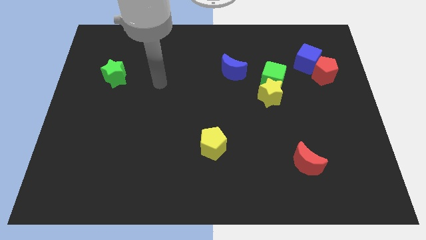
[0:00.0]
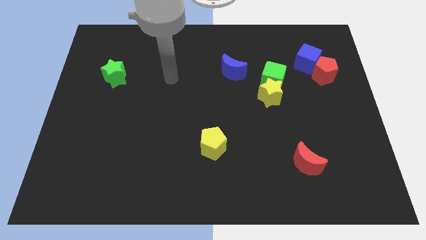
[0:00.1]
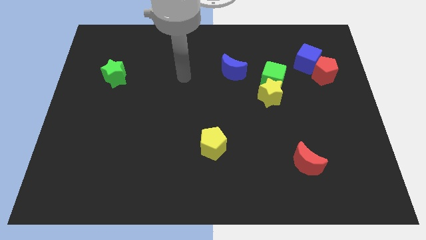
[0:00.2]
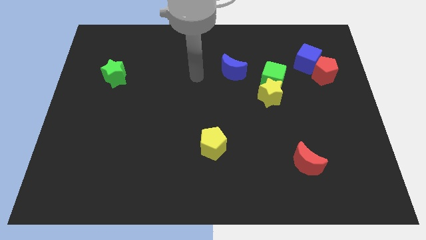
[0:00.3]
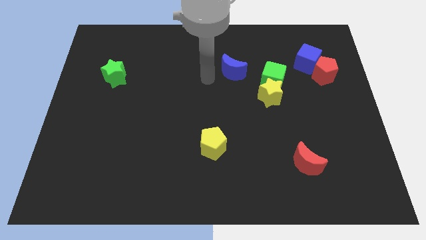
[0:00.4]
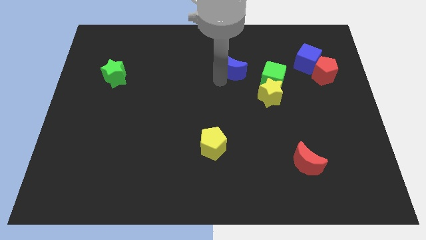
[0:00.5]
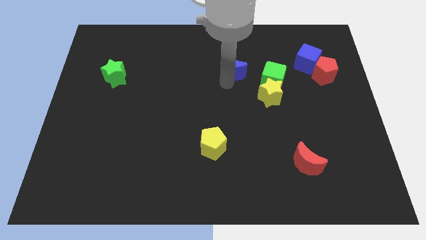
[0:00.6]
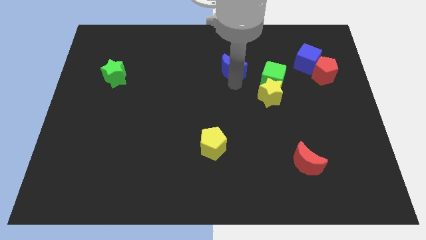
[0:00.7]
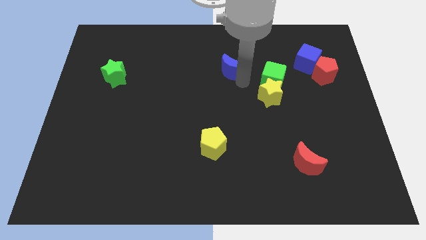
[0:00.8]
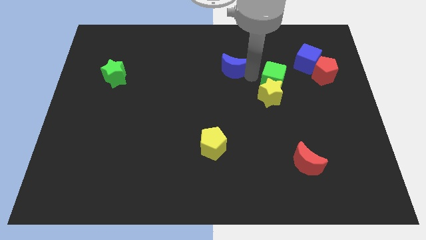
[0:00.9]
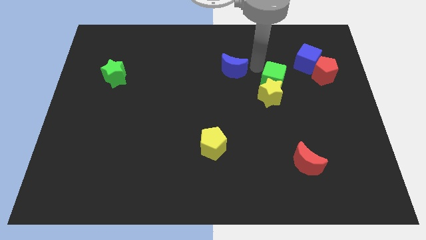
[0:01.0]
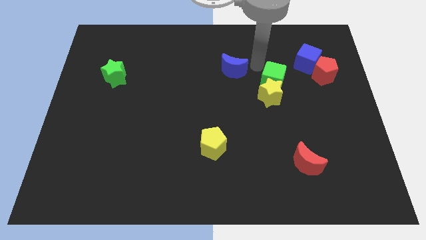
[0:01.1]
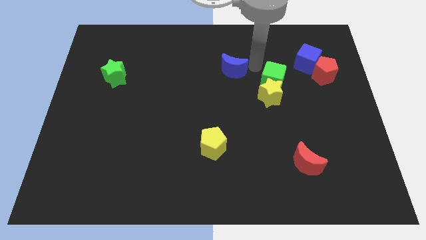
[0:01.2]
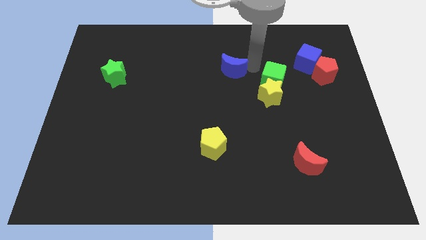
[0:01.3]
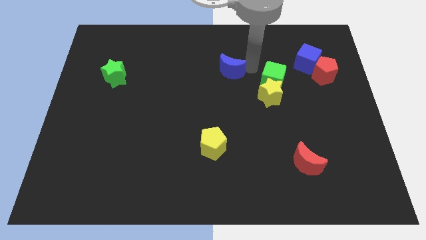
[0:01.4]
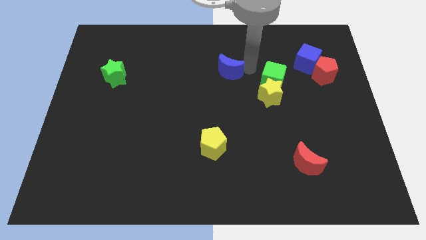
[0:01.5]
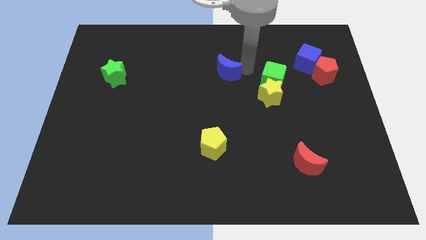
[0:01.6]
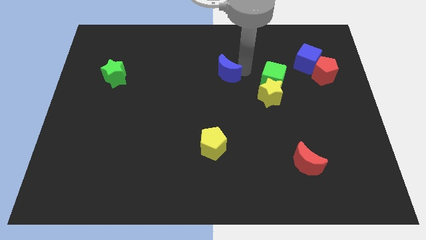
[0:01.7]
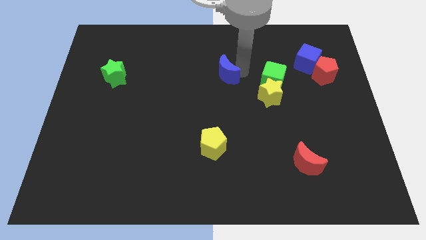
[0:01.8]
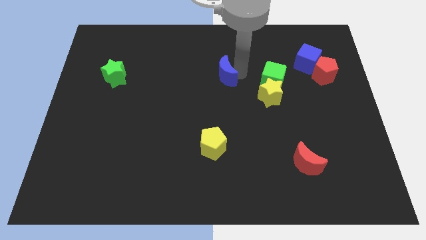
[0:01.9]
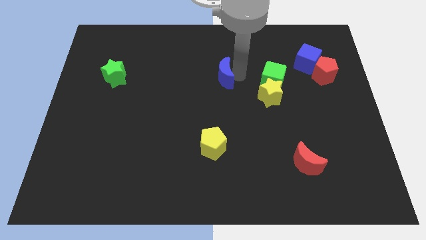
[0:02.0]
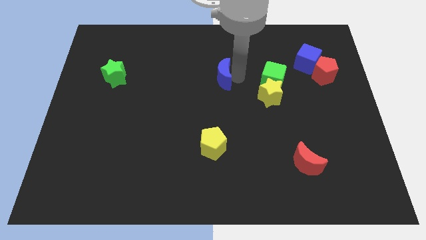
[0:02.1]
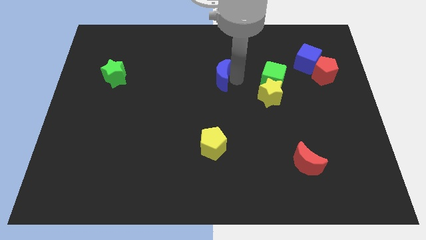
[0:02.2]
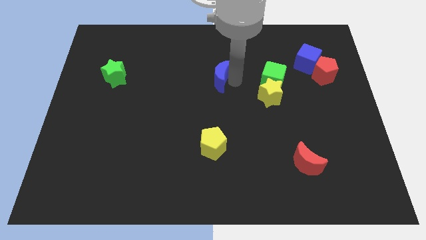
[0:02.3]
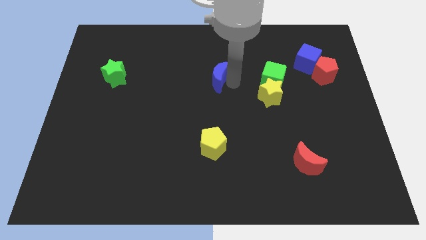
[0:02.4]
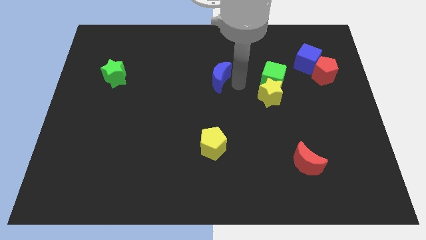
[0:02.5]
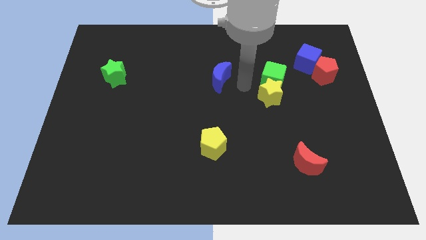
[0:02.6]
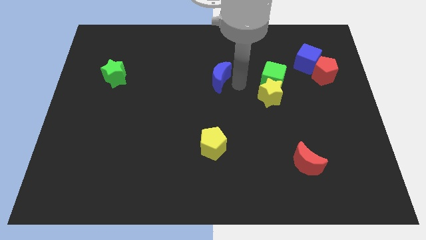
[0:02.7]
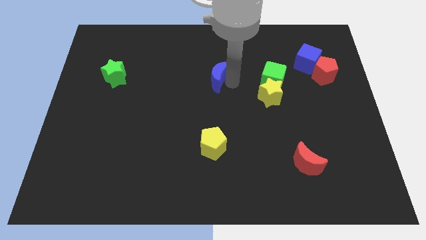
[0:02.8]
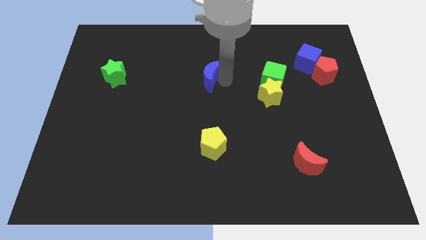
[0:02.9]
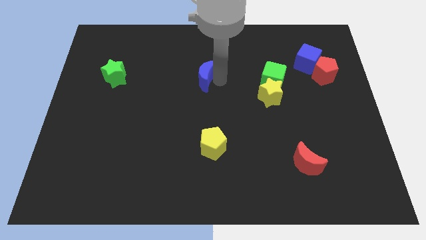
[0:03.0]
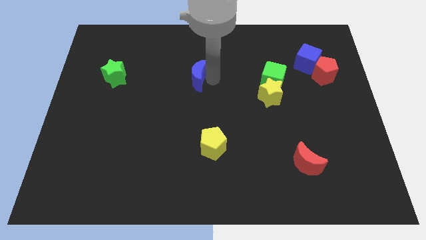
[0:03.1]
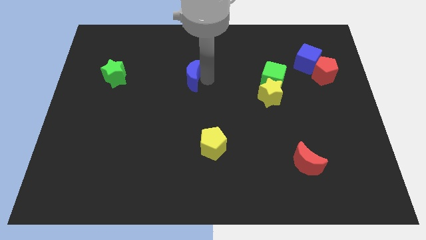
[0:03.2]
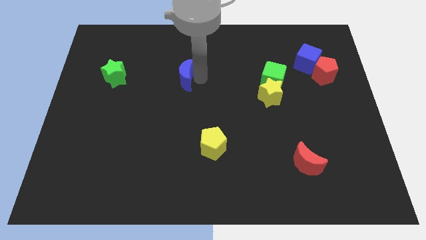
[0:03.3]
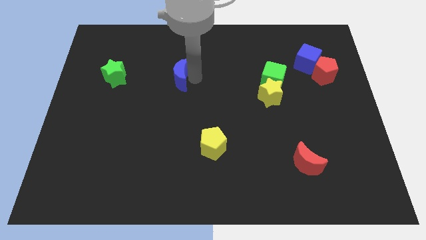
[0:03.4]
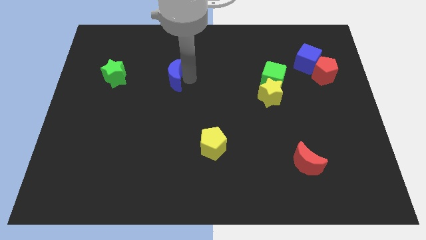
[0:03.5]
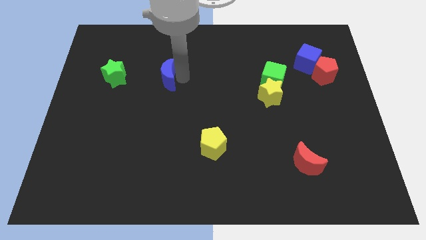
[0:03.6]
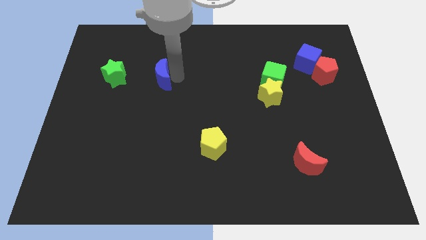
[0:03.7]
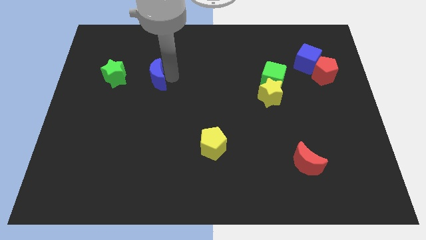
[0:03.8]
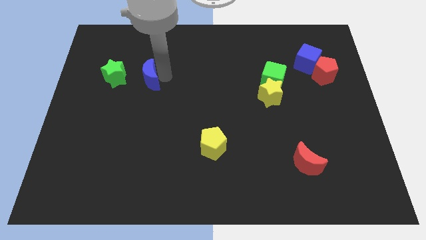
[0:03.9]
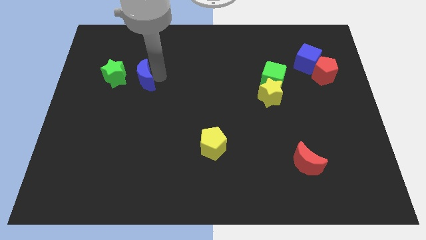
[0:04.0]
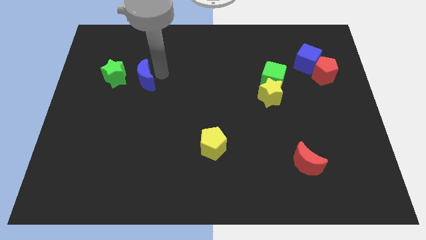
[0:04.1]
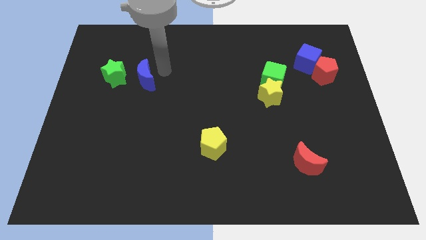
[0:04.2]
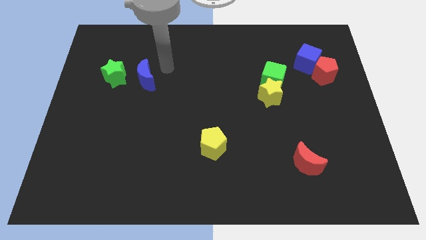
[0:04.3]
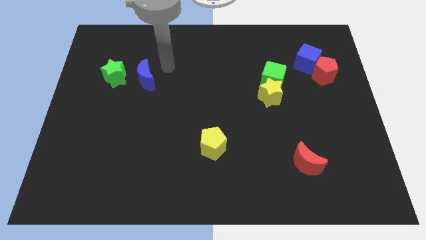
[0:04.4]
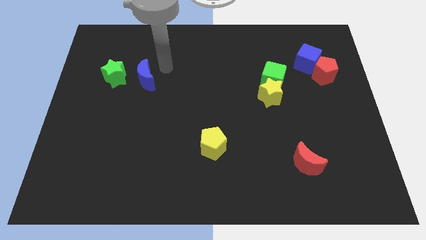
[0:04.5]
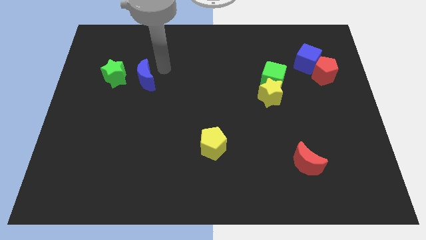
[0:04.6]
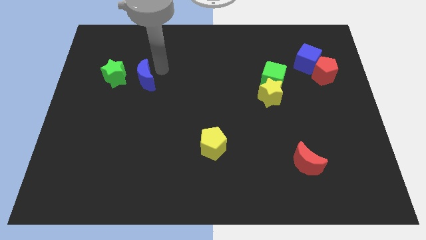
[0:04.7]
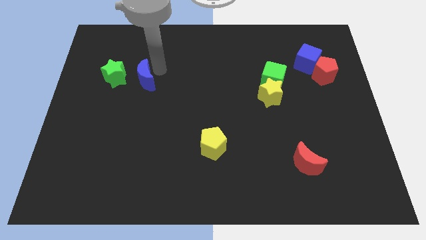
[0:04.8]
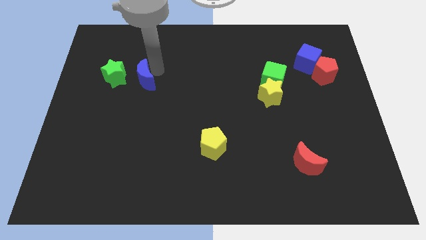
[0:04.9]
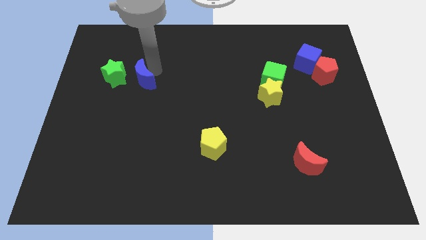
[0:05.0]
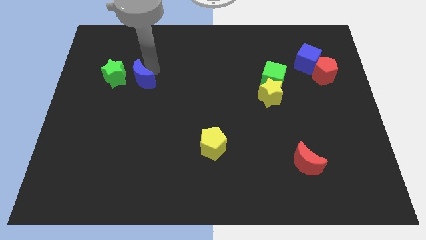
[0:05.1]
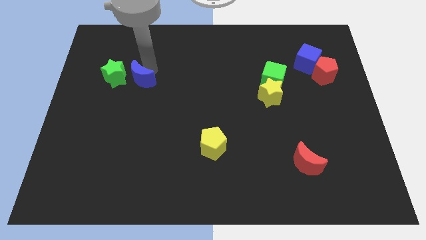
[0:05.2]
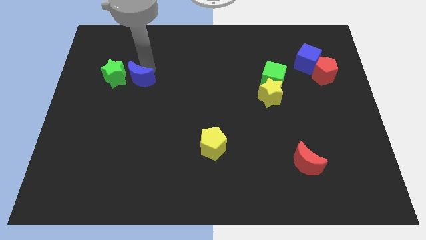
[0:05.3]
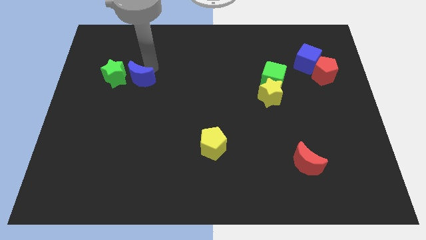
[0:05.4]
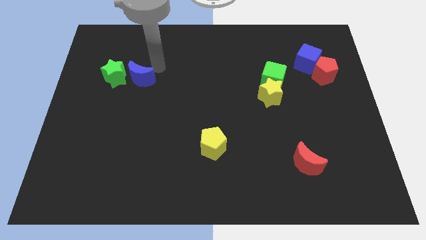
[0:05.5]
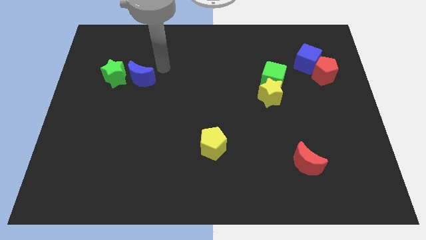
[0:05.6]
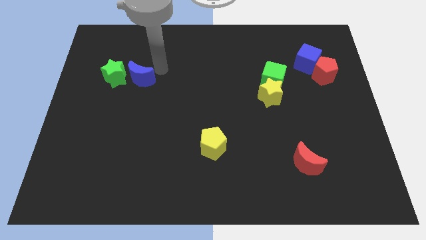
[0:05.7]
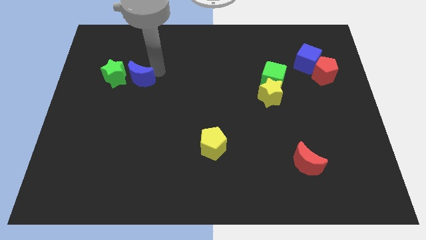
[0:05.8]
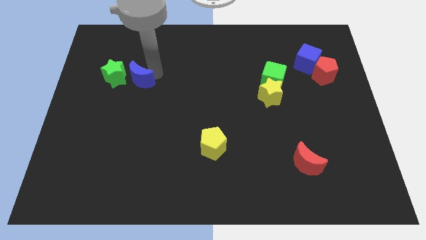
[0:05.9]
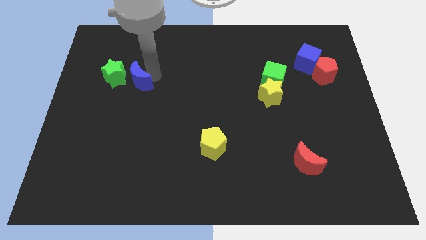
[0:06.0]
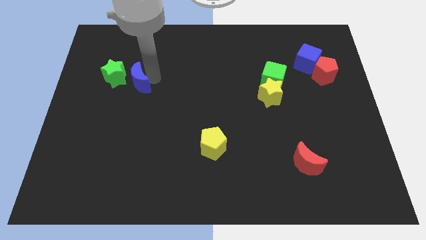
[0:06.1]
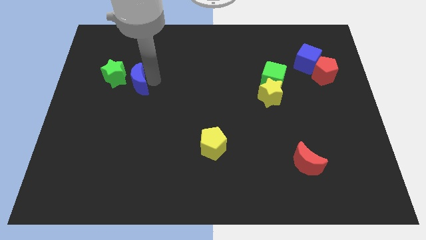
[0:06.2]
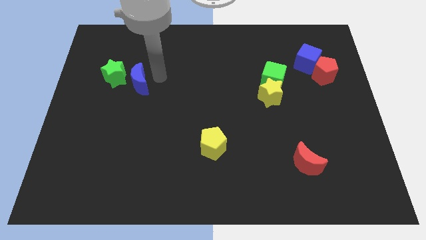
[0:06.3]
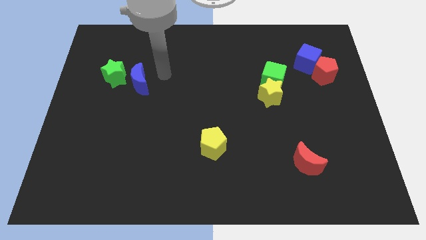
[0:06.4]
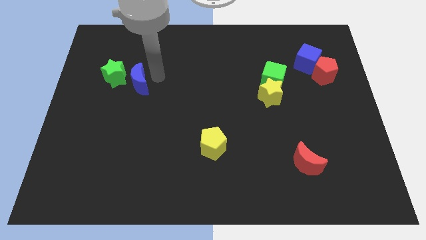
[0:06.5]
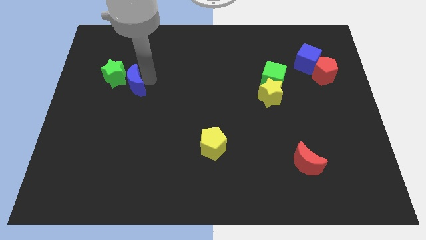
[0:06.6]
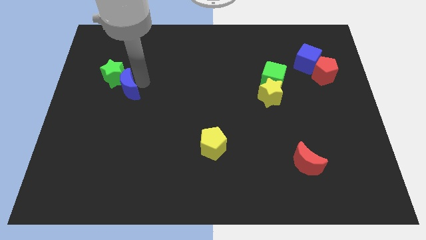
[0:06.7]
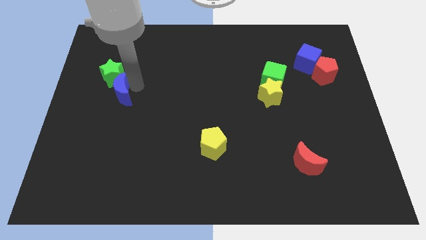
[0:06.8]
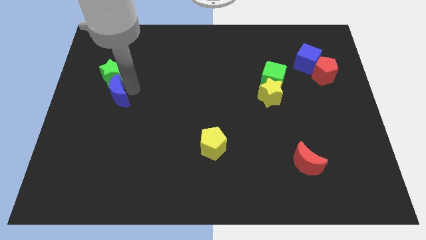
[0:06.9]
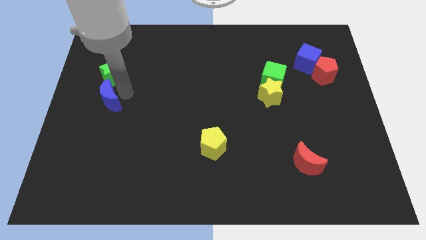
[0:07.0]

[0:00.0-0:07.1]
move the blue moon to the center left
